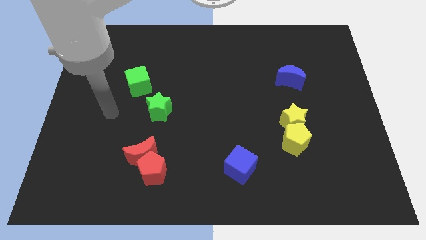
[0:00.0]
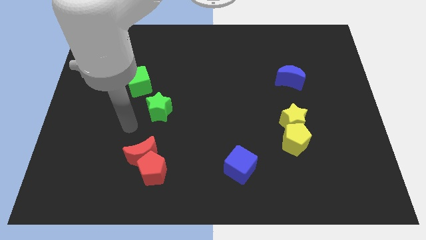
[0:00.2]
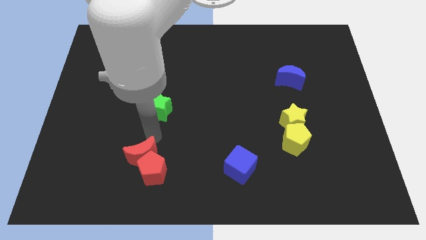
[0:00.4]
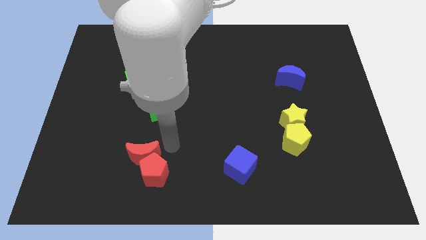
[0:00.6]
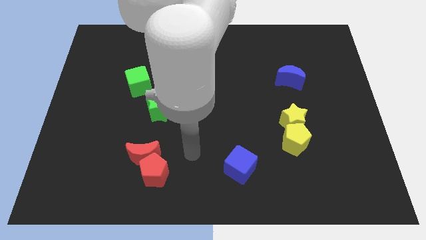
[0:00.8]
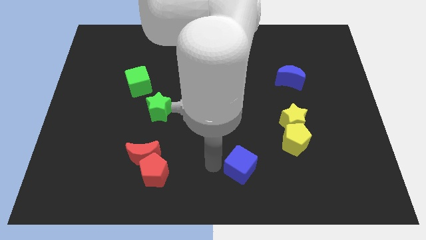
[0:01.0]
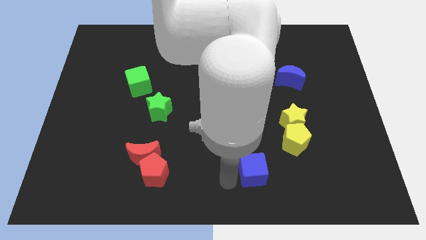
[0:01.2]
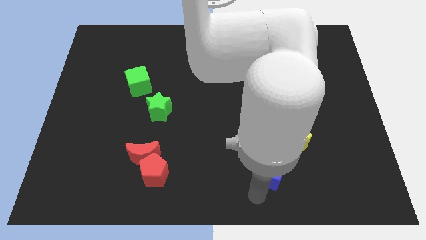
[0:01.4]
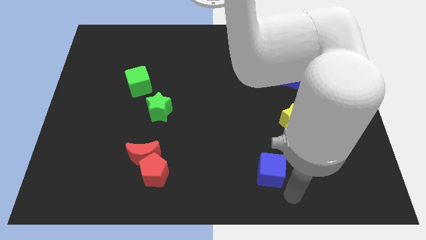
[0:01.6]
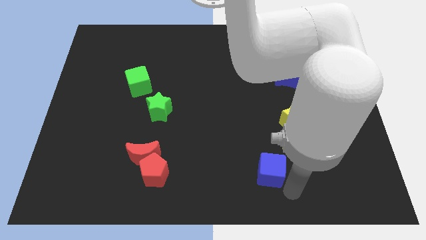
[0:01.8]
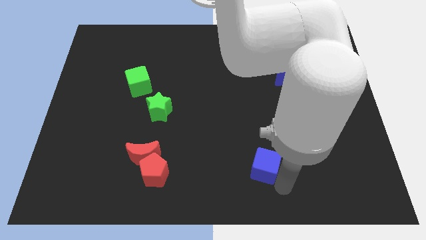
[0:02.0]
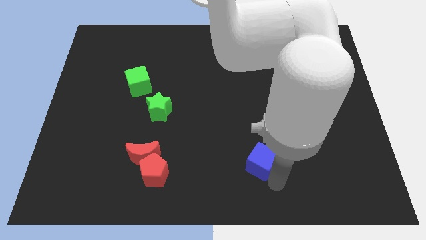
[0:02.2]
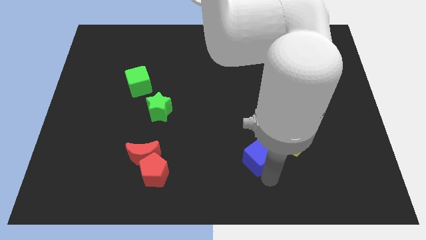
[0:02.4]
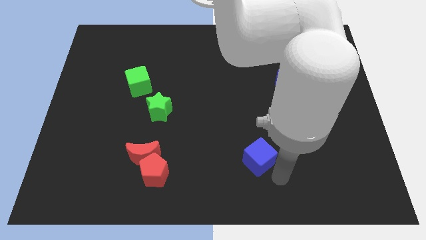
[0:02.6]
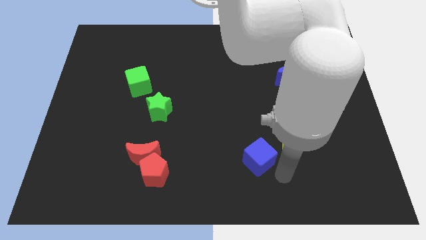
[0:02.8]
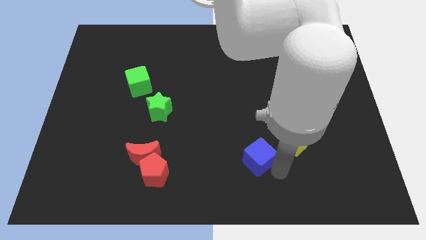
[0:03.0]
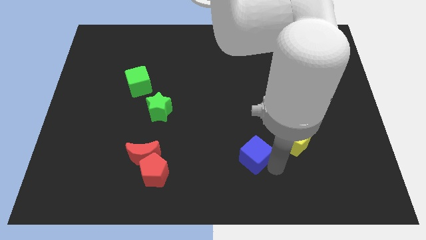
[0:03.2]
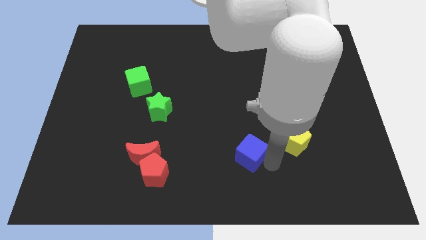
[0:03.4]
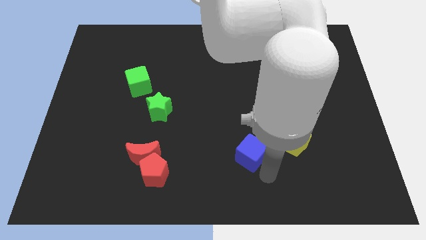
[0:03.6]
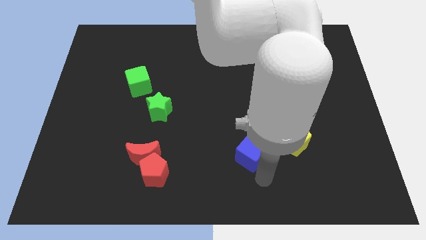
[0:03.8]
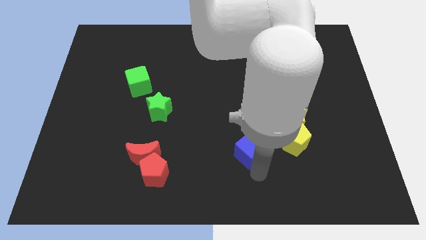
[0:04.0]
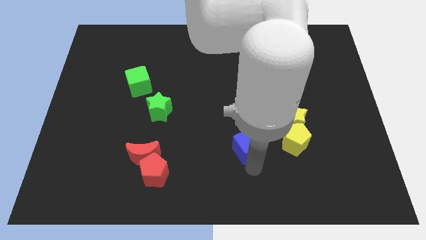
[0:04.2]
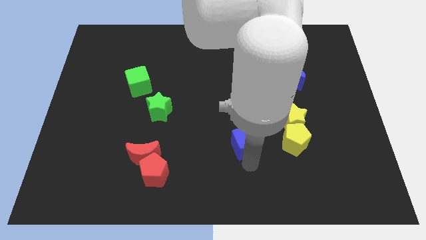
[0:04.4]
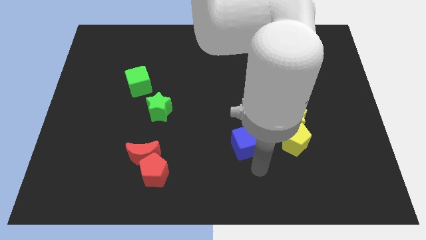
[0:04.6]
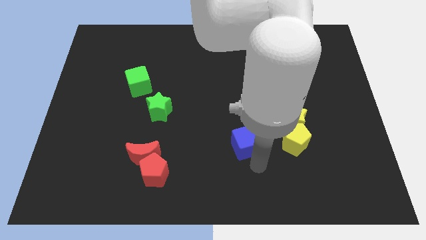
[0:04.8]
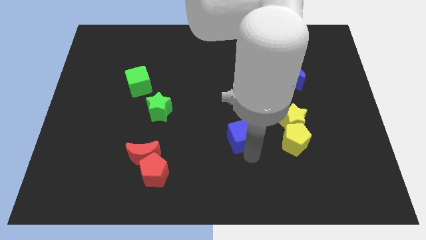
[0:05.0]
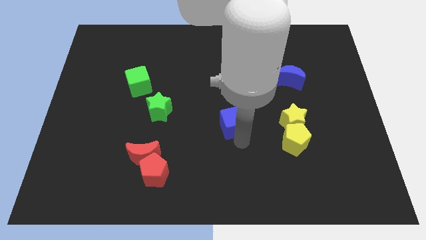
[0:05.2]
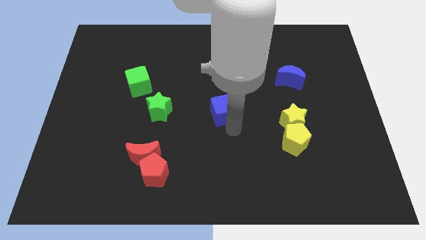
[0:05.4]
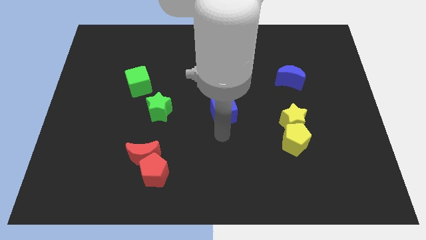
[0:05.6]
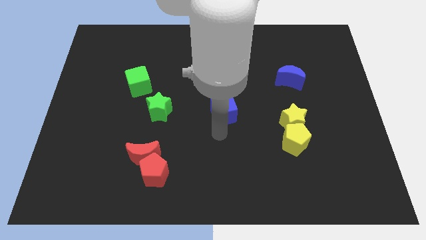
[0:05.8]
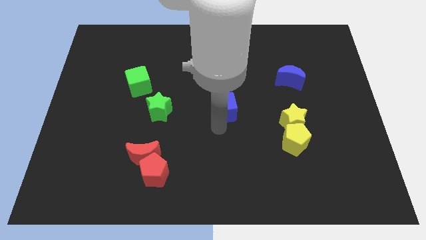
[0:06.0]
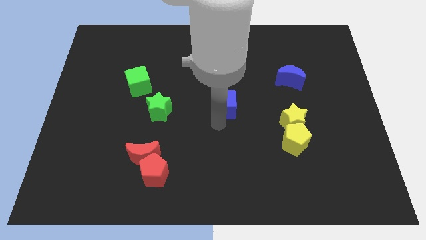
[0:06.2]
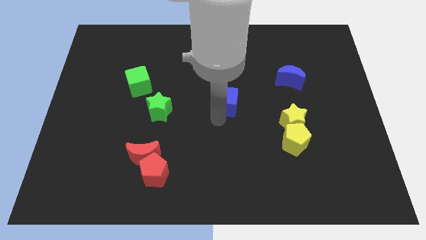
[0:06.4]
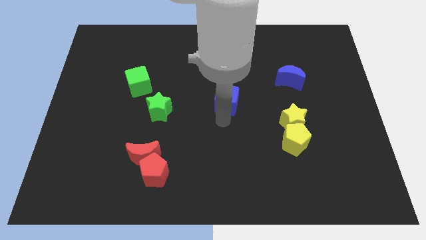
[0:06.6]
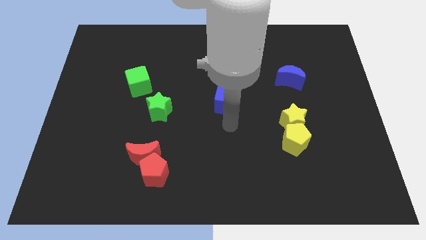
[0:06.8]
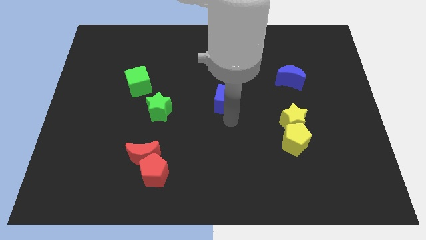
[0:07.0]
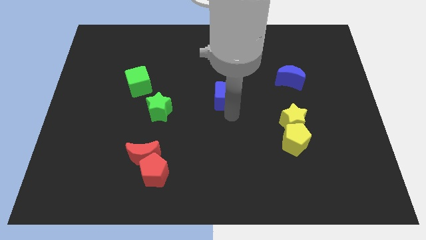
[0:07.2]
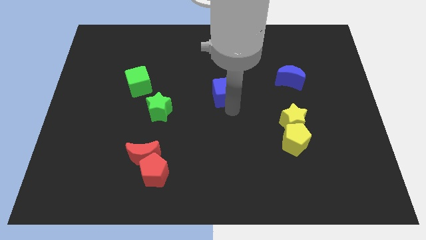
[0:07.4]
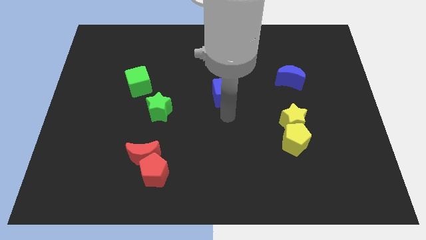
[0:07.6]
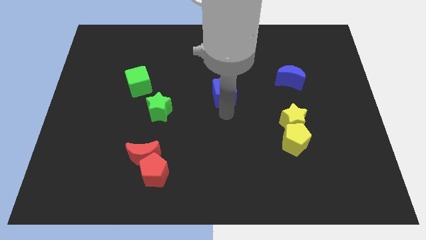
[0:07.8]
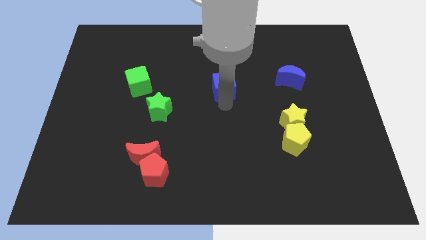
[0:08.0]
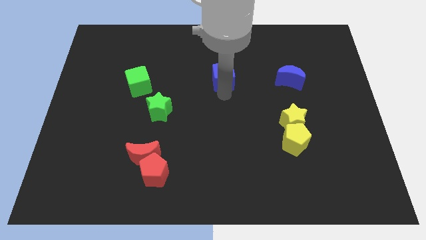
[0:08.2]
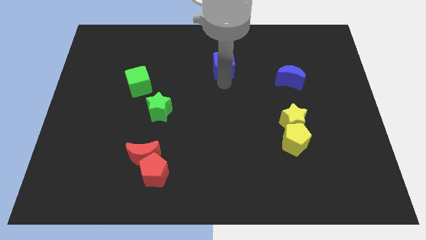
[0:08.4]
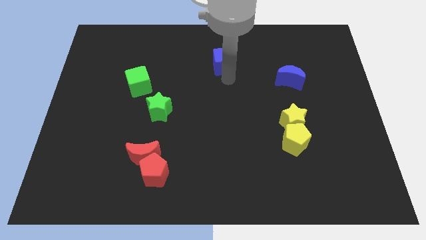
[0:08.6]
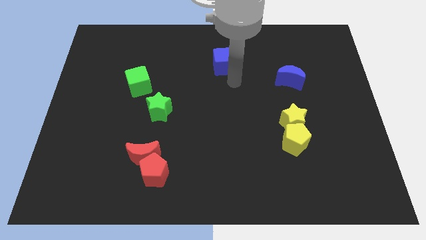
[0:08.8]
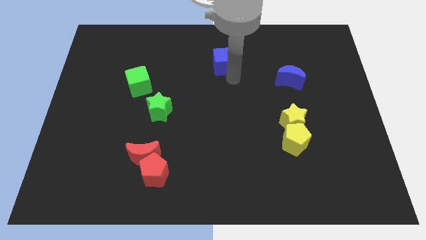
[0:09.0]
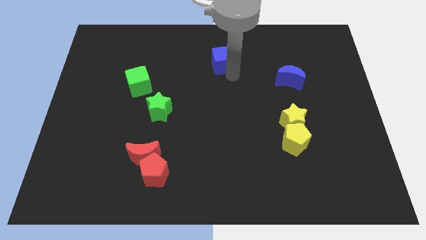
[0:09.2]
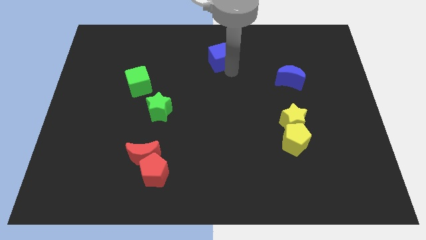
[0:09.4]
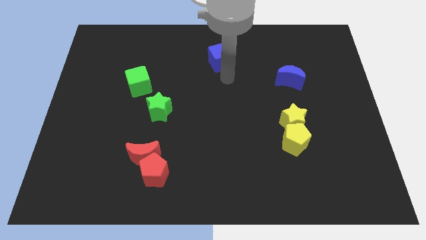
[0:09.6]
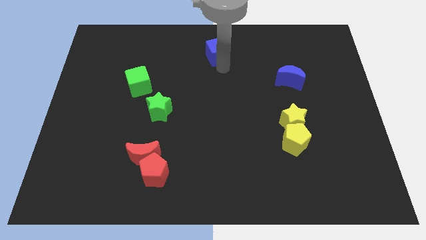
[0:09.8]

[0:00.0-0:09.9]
slide the blue cube to the towards your base

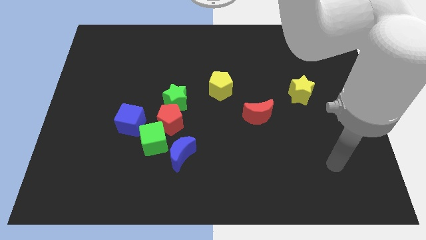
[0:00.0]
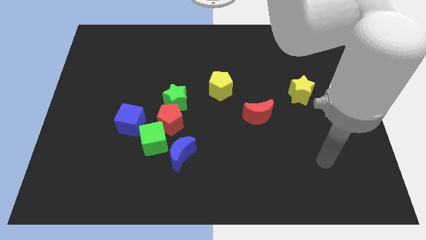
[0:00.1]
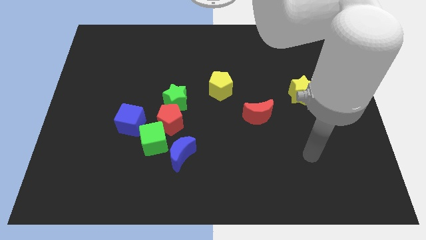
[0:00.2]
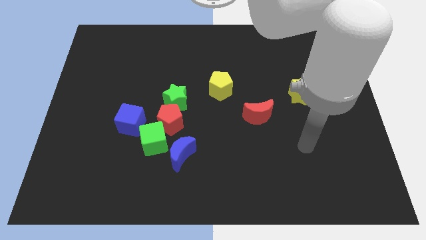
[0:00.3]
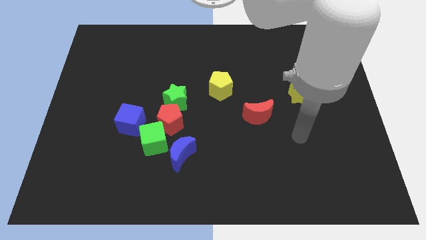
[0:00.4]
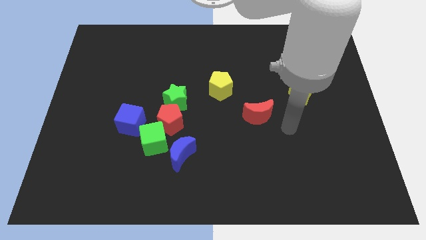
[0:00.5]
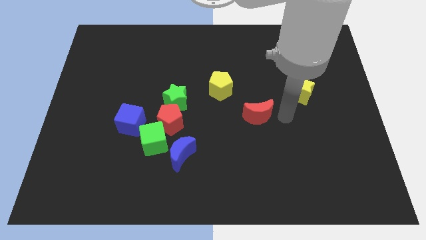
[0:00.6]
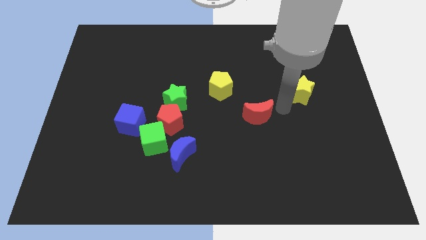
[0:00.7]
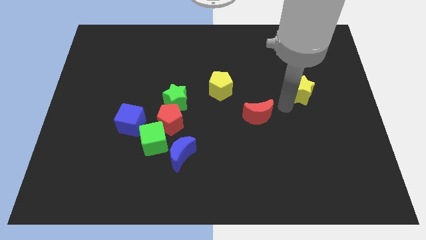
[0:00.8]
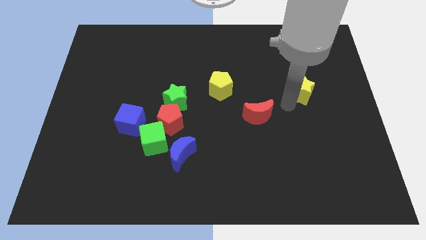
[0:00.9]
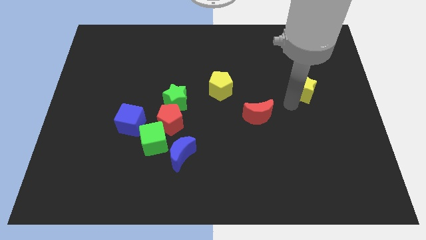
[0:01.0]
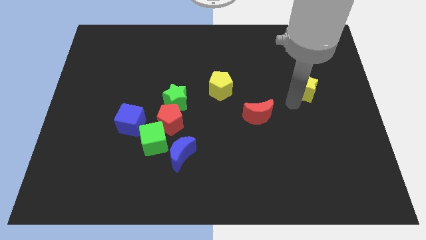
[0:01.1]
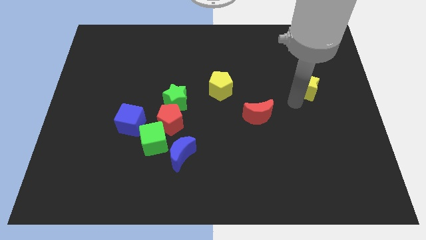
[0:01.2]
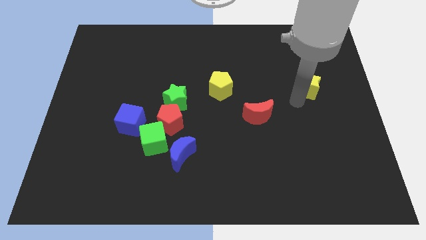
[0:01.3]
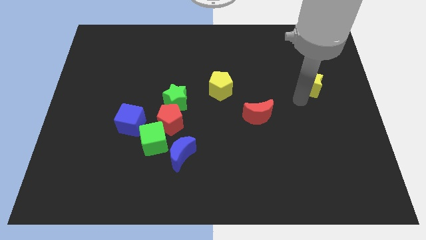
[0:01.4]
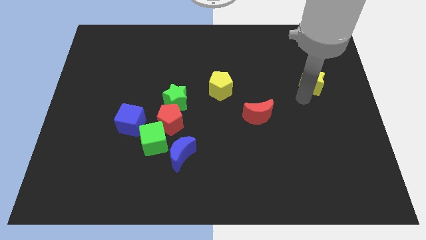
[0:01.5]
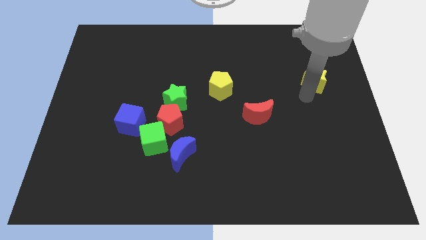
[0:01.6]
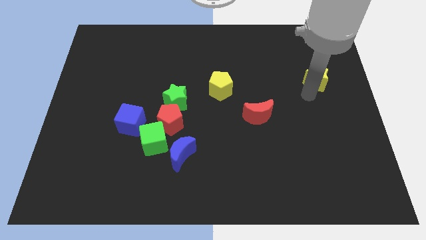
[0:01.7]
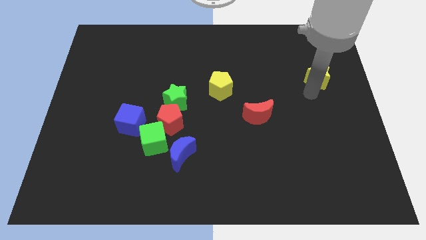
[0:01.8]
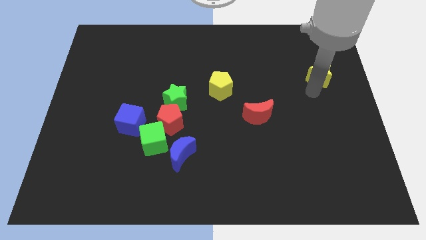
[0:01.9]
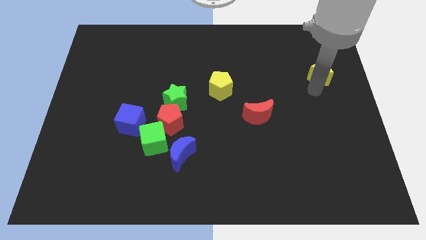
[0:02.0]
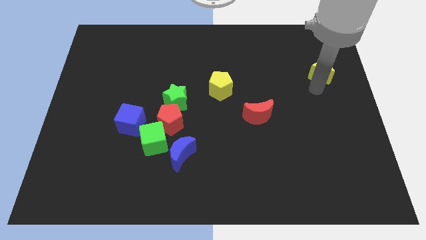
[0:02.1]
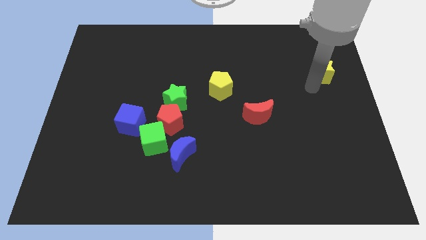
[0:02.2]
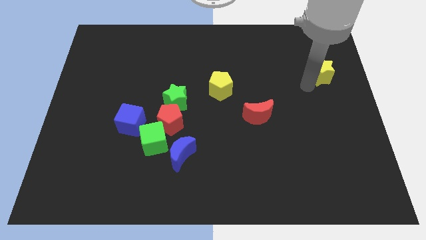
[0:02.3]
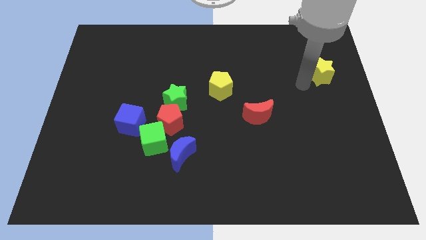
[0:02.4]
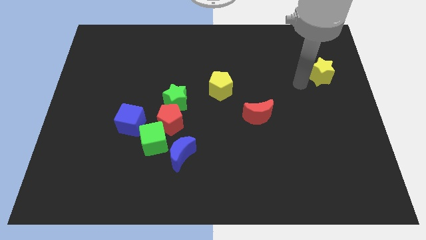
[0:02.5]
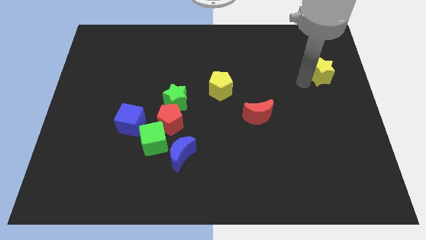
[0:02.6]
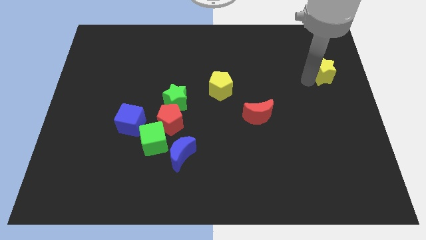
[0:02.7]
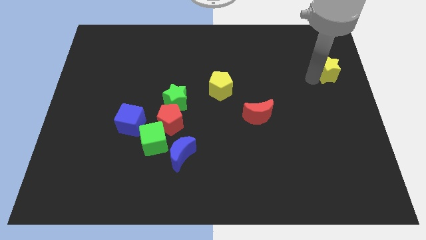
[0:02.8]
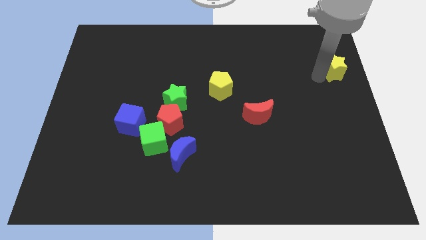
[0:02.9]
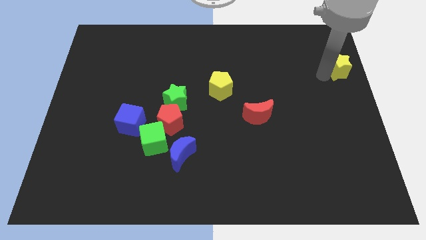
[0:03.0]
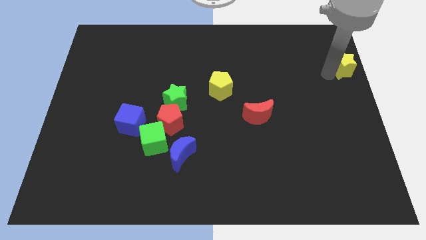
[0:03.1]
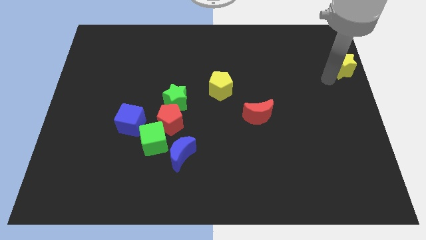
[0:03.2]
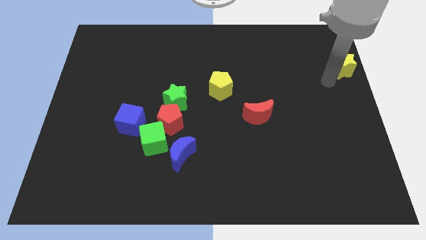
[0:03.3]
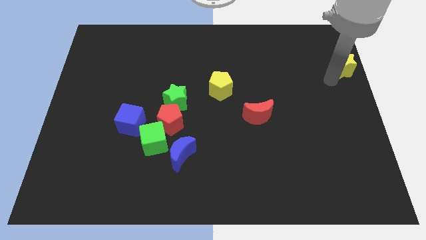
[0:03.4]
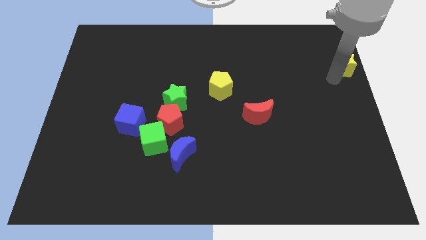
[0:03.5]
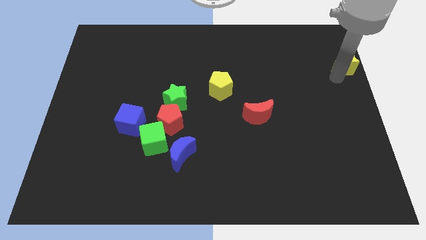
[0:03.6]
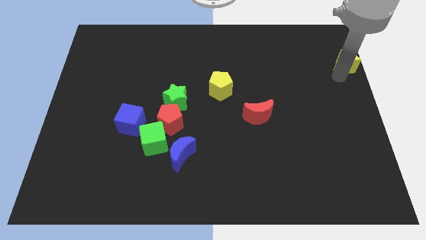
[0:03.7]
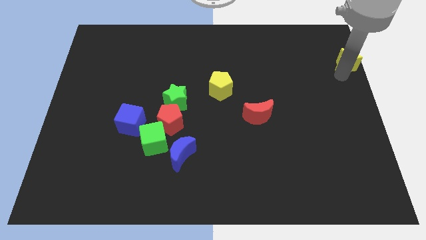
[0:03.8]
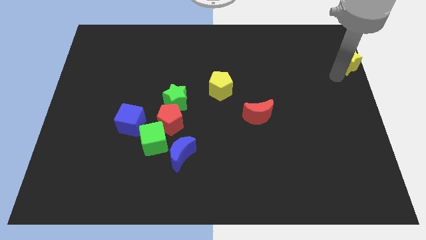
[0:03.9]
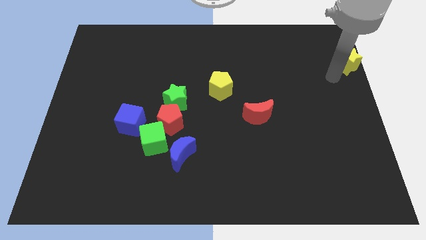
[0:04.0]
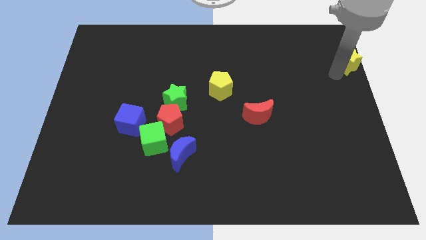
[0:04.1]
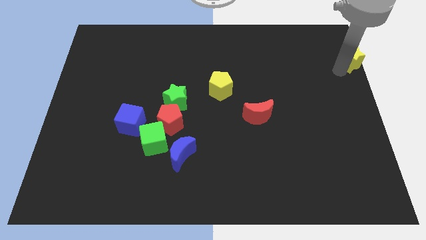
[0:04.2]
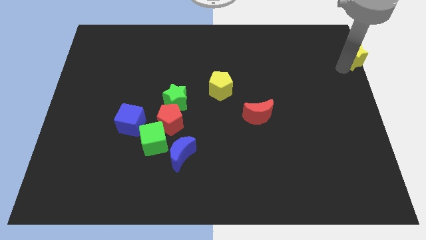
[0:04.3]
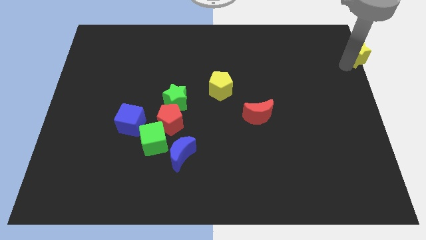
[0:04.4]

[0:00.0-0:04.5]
put the yellow star to the top right corner
